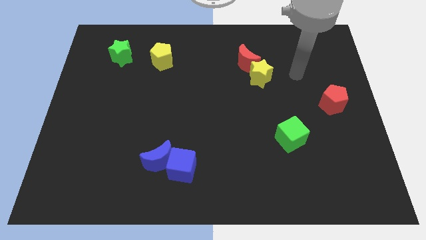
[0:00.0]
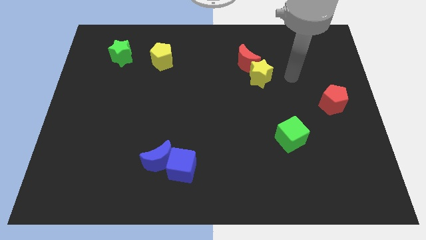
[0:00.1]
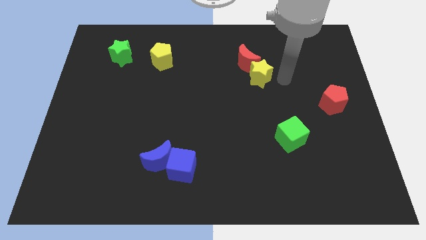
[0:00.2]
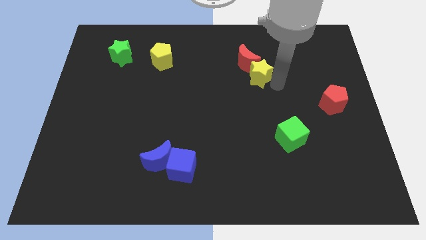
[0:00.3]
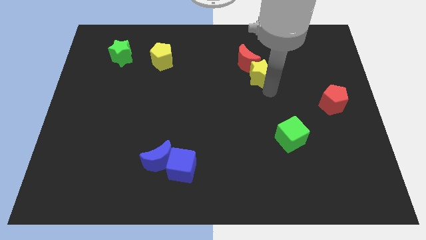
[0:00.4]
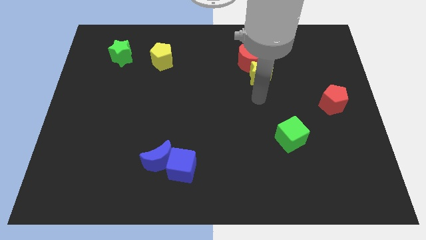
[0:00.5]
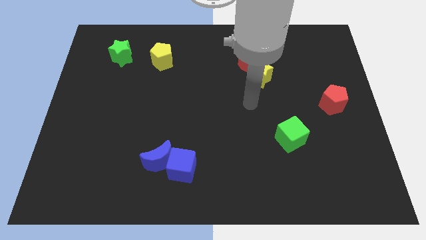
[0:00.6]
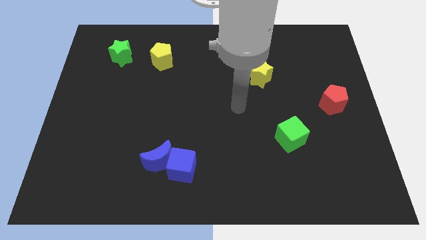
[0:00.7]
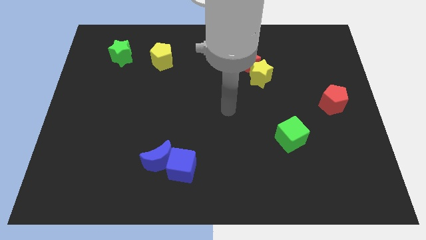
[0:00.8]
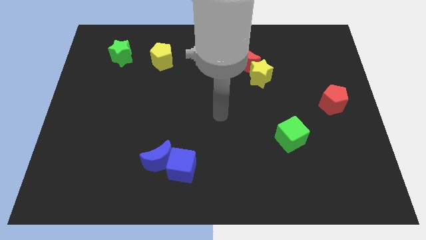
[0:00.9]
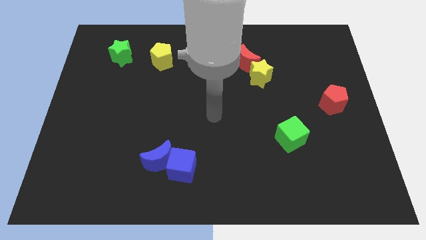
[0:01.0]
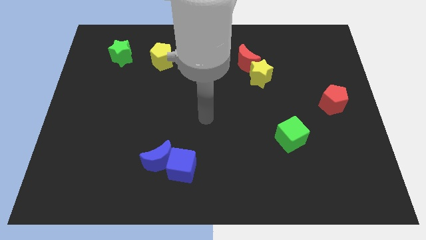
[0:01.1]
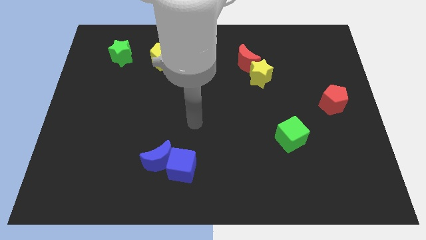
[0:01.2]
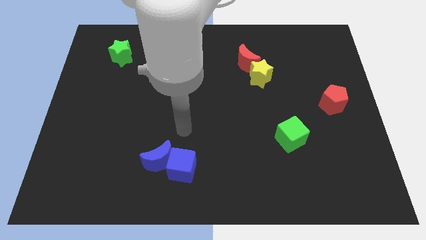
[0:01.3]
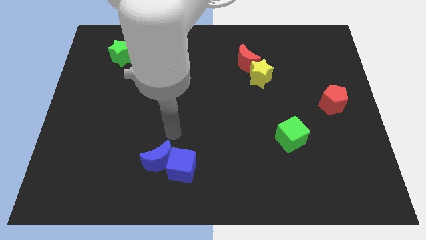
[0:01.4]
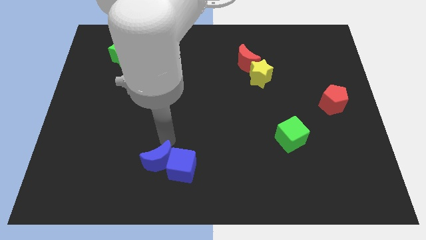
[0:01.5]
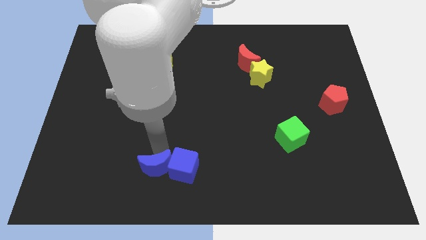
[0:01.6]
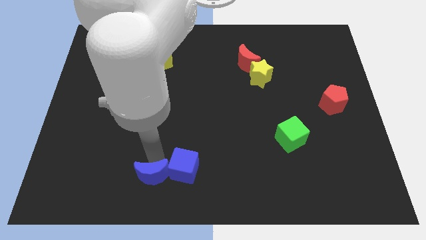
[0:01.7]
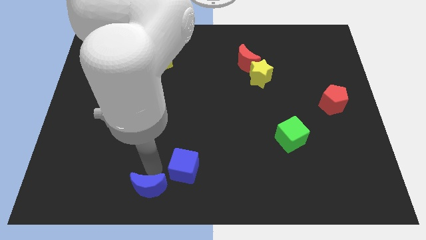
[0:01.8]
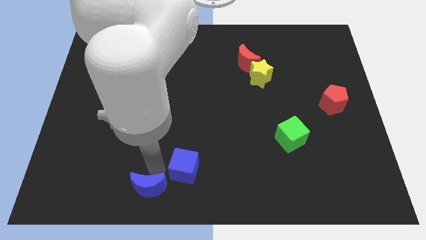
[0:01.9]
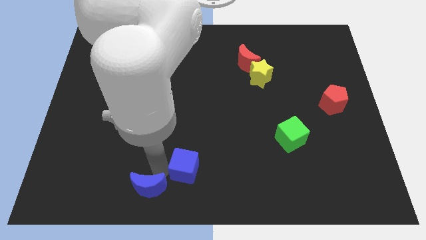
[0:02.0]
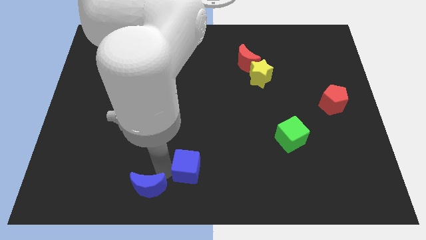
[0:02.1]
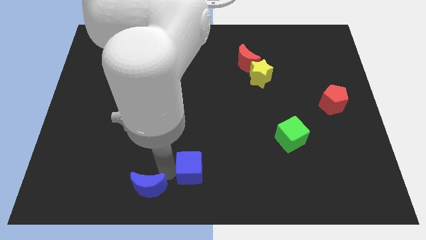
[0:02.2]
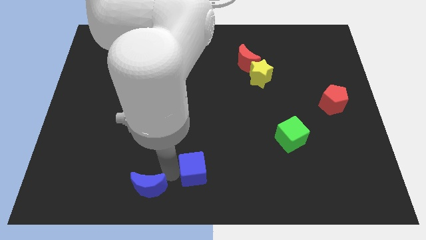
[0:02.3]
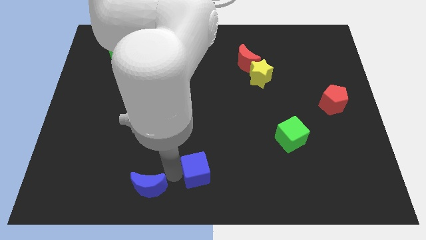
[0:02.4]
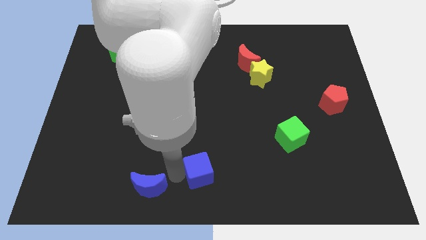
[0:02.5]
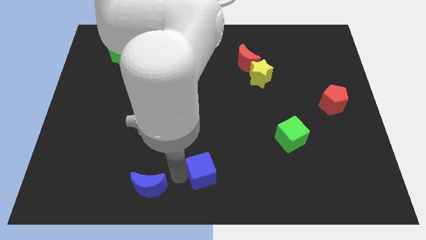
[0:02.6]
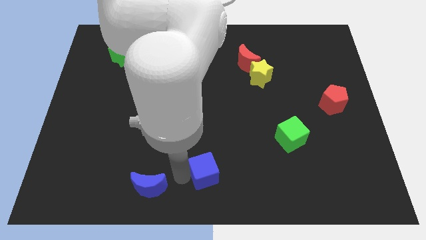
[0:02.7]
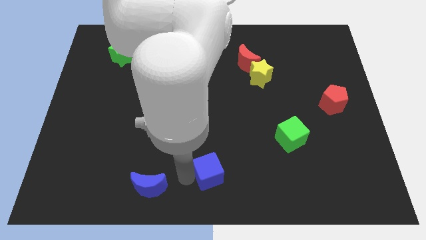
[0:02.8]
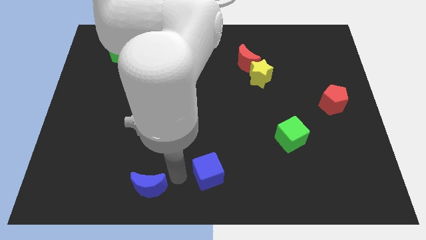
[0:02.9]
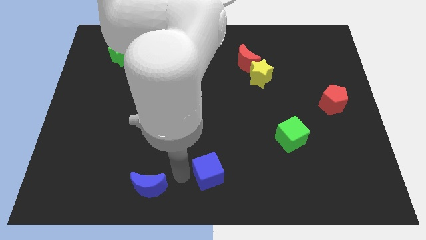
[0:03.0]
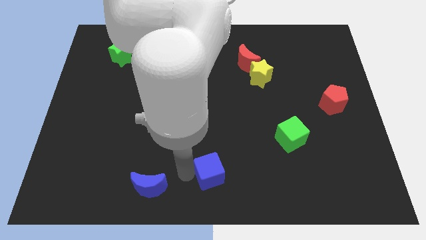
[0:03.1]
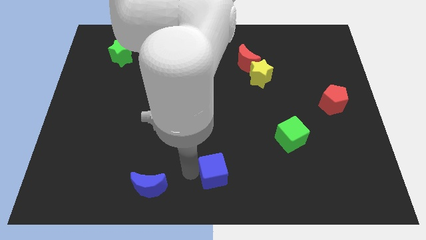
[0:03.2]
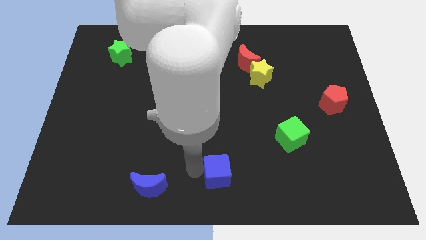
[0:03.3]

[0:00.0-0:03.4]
slightly push the blue cube to the right

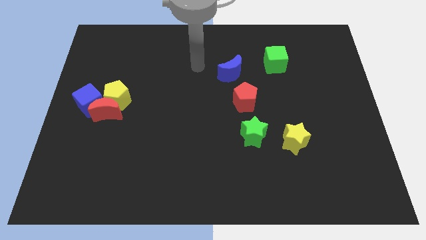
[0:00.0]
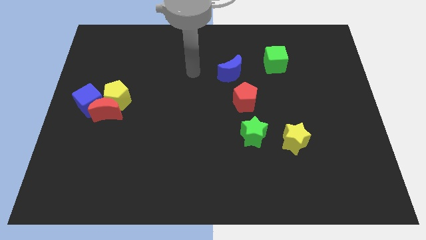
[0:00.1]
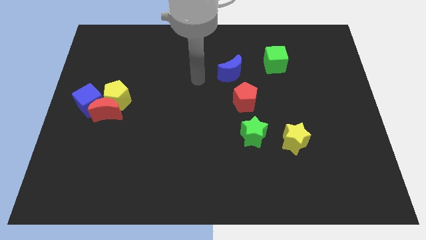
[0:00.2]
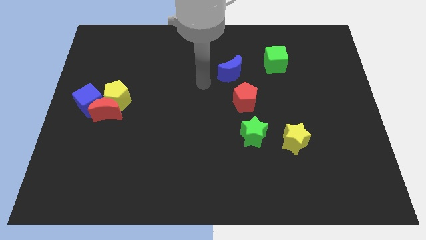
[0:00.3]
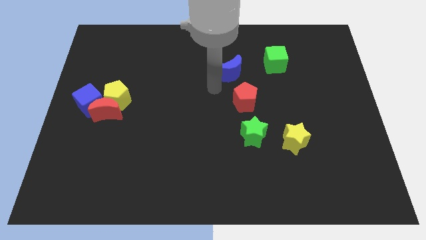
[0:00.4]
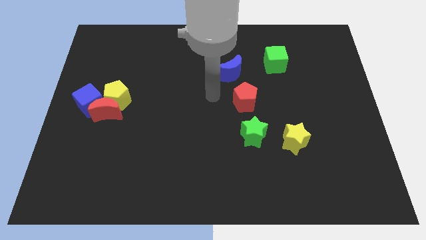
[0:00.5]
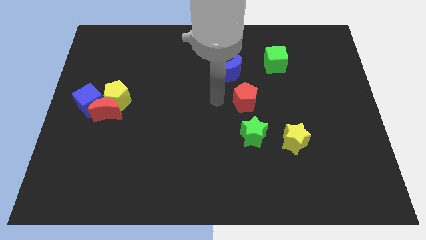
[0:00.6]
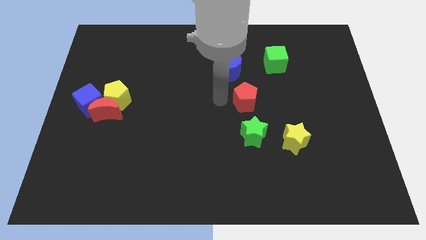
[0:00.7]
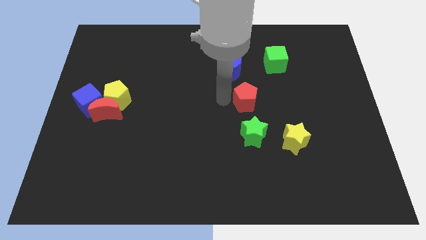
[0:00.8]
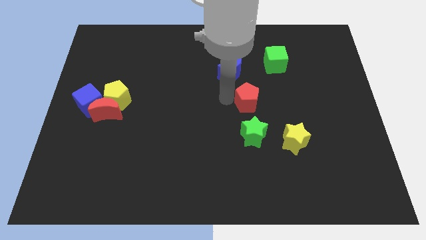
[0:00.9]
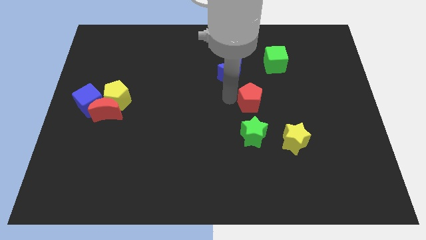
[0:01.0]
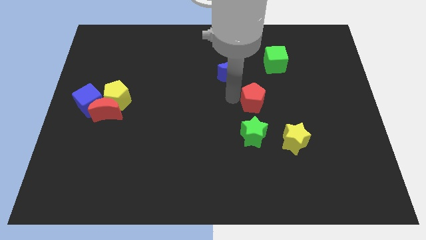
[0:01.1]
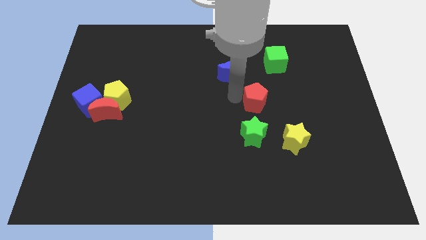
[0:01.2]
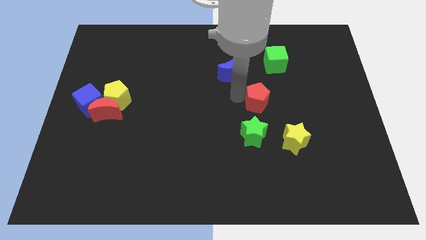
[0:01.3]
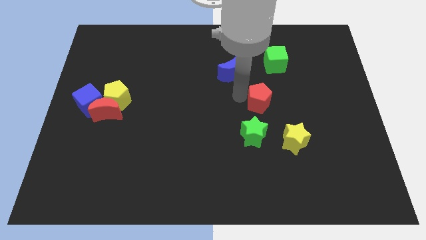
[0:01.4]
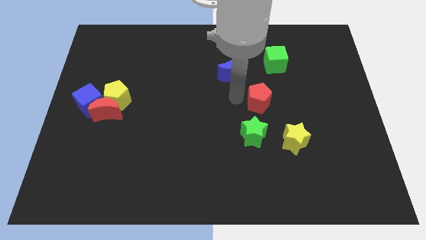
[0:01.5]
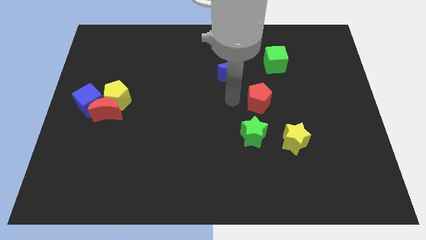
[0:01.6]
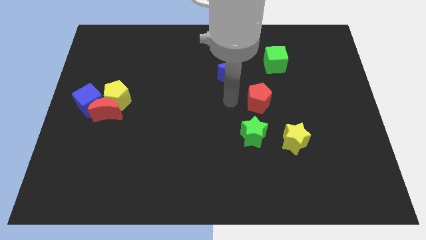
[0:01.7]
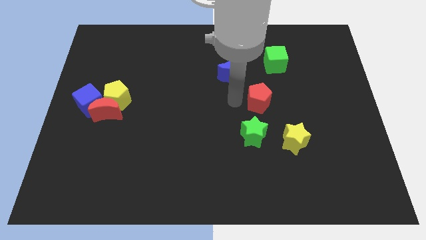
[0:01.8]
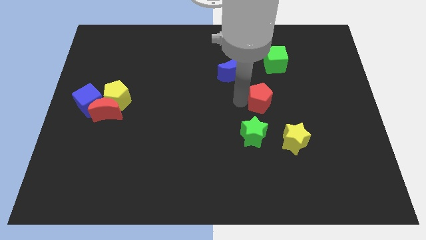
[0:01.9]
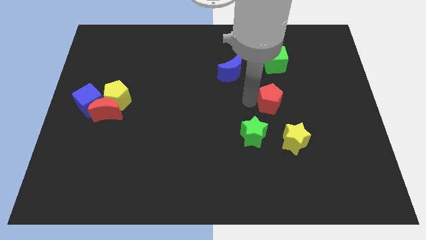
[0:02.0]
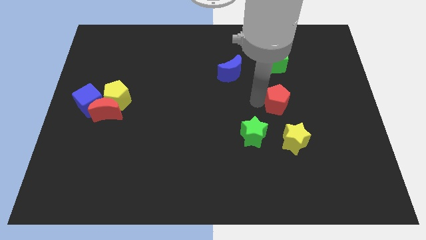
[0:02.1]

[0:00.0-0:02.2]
push the red pentagon to the right somewhat

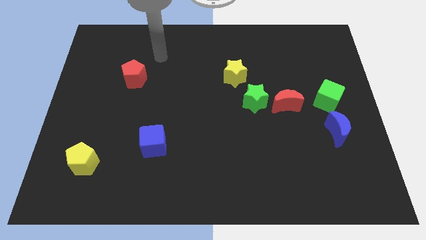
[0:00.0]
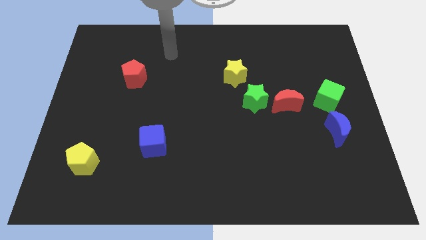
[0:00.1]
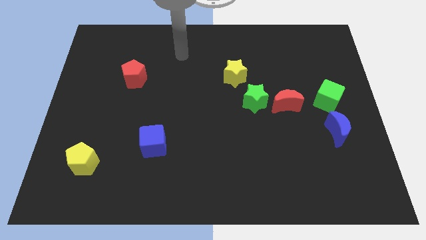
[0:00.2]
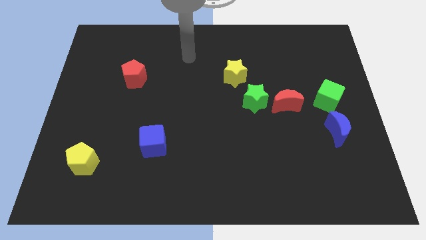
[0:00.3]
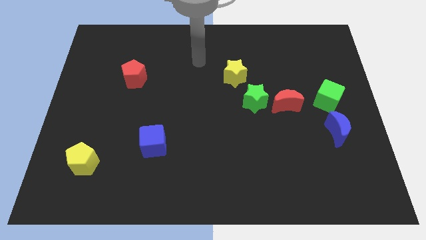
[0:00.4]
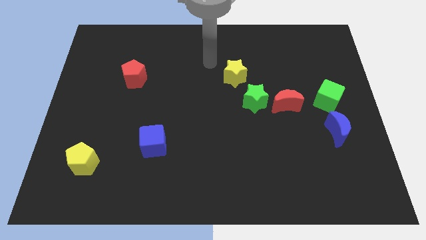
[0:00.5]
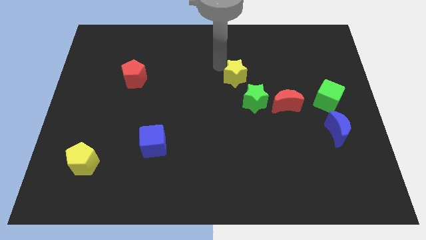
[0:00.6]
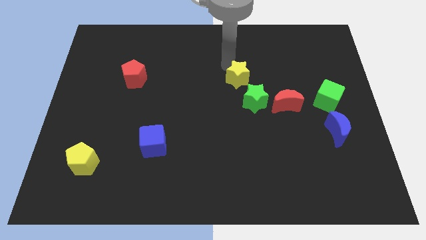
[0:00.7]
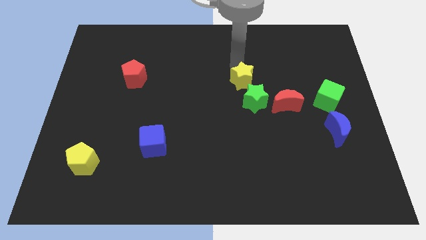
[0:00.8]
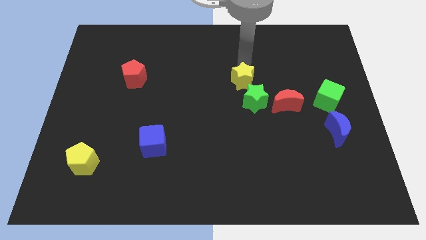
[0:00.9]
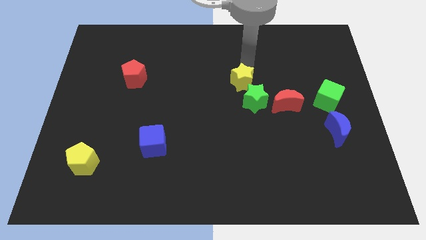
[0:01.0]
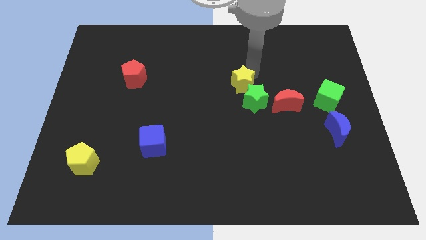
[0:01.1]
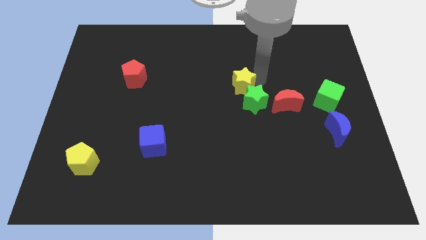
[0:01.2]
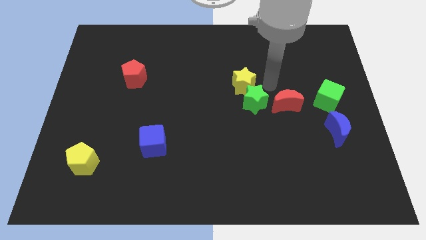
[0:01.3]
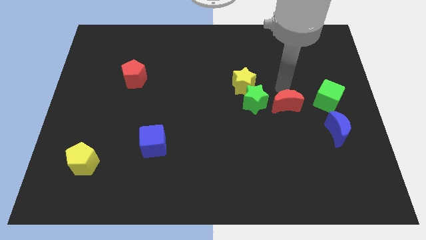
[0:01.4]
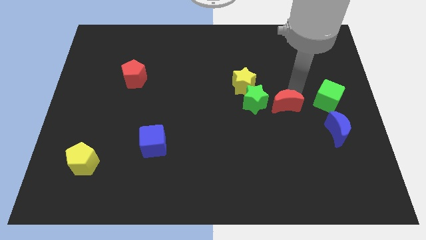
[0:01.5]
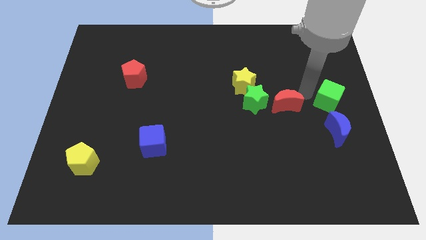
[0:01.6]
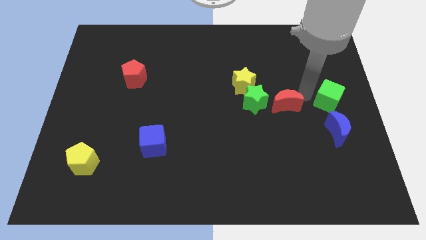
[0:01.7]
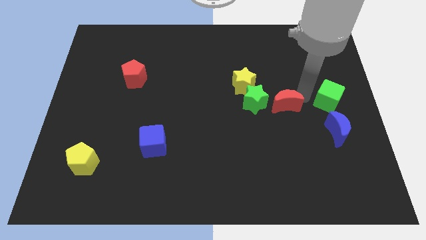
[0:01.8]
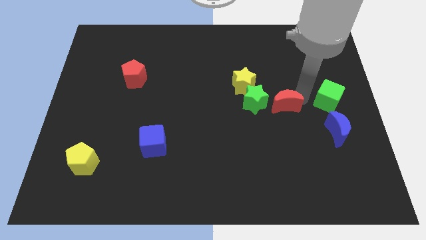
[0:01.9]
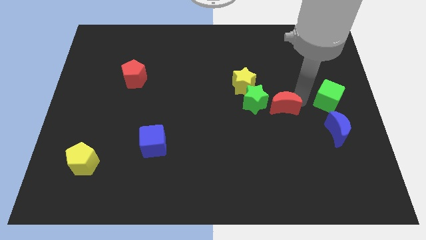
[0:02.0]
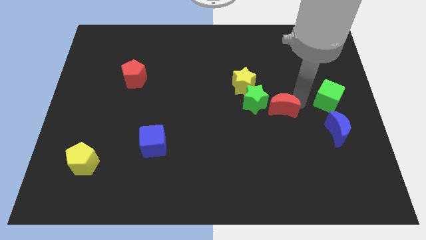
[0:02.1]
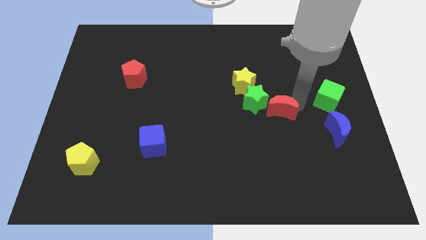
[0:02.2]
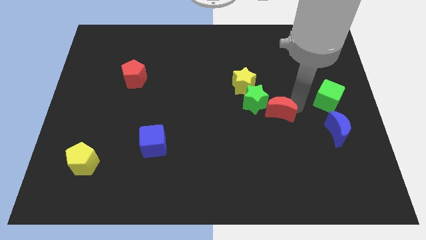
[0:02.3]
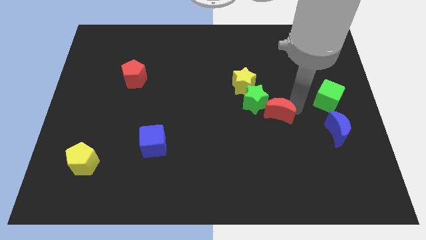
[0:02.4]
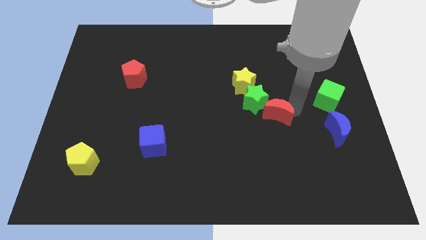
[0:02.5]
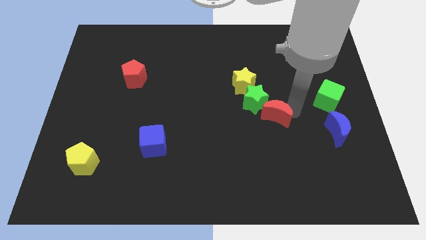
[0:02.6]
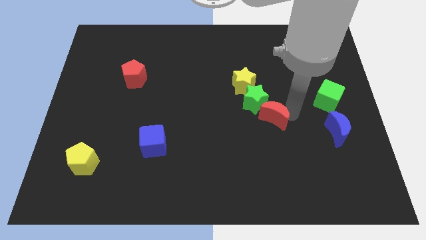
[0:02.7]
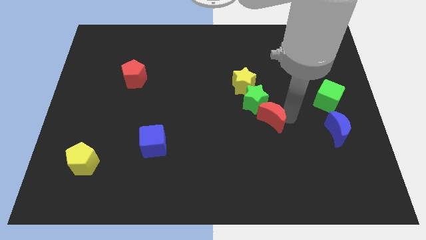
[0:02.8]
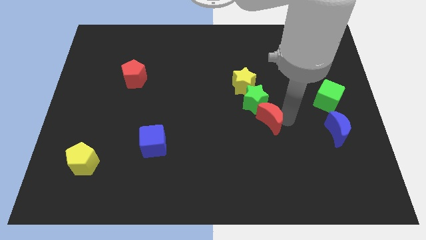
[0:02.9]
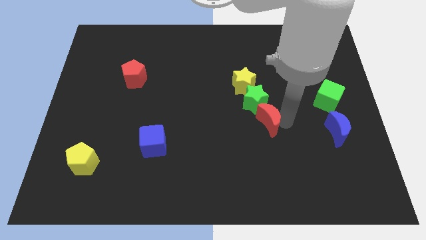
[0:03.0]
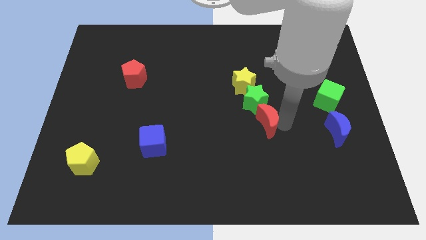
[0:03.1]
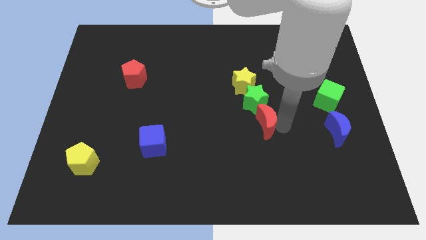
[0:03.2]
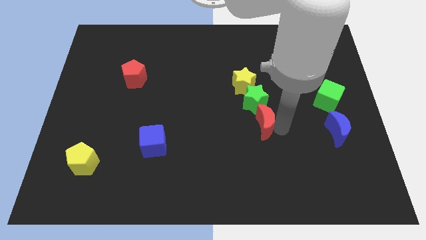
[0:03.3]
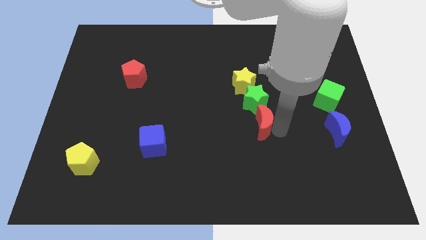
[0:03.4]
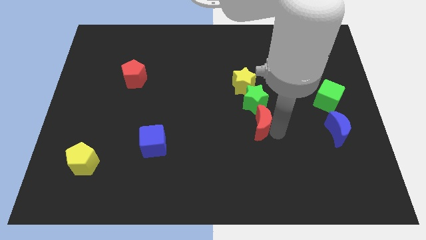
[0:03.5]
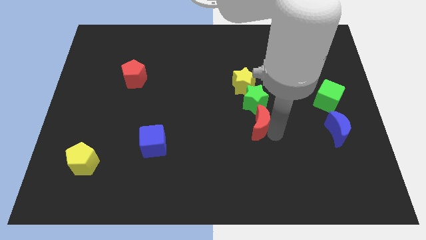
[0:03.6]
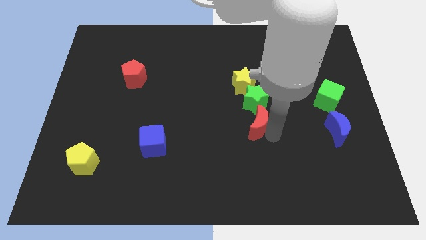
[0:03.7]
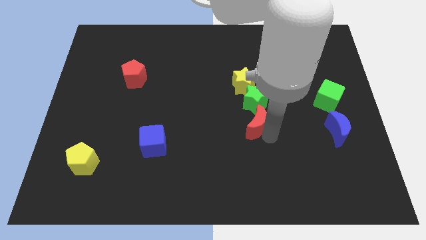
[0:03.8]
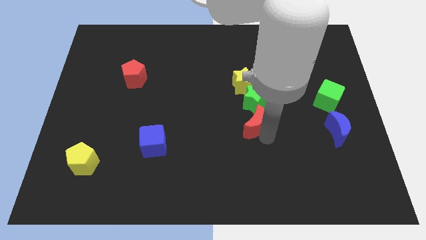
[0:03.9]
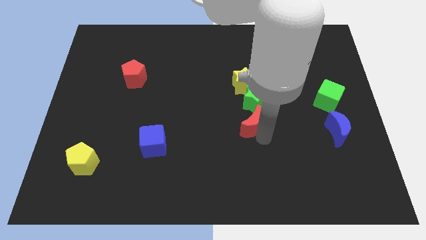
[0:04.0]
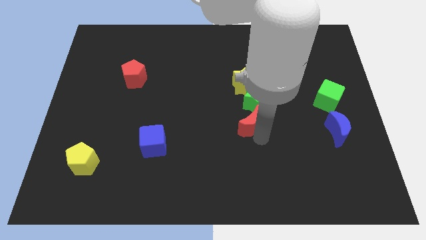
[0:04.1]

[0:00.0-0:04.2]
slightly slide the red moon to the left
